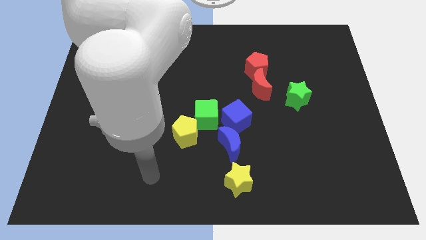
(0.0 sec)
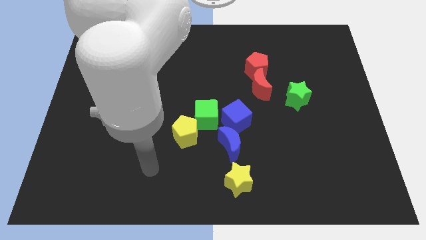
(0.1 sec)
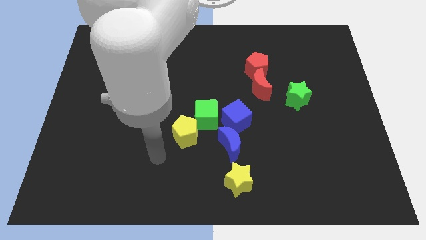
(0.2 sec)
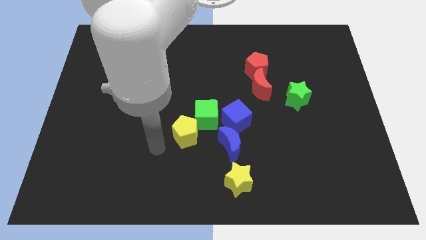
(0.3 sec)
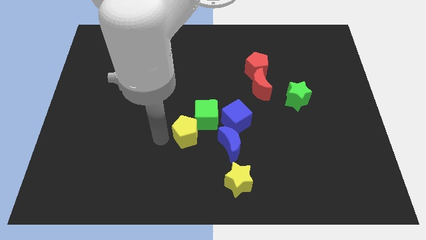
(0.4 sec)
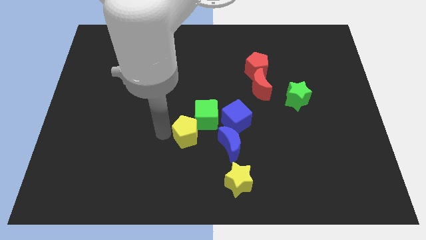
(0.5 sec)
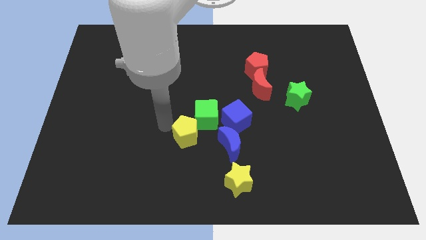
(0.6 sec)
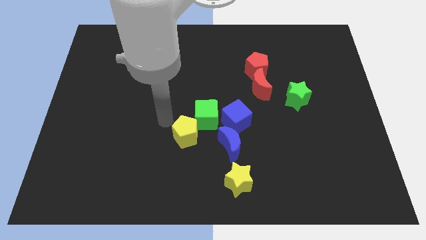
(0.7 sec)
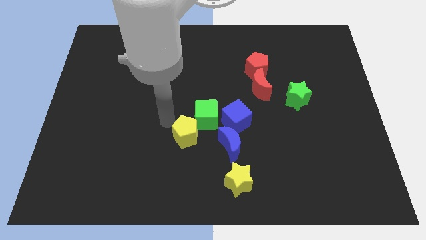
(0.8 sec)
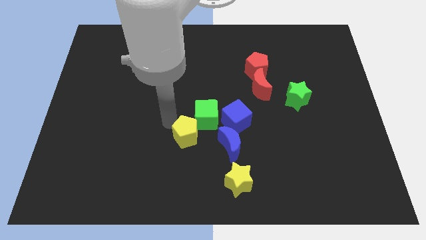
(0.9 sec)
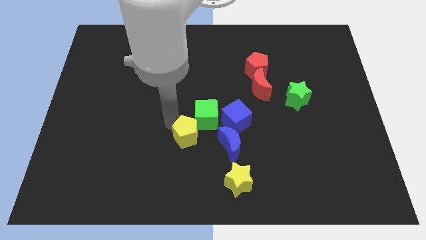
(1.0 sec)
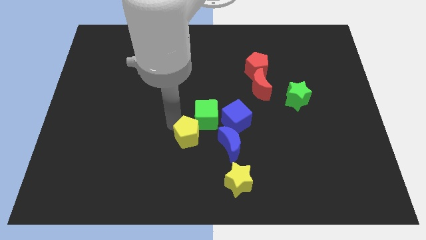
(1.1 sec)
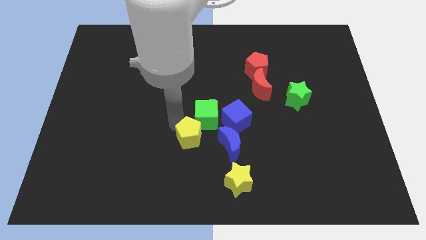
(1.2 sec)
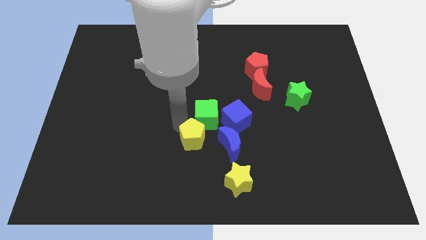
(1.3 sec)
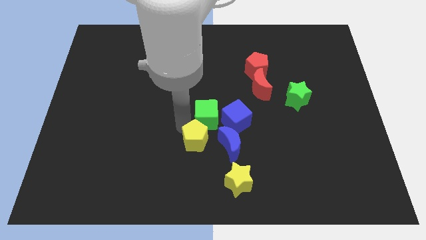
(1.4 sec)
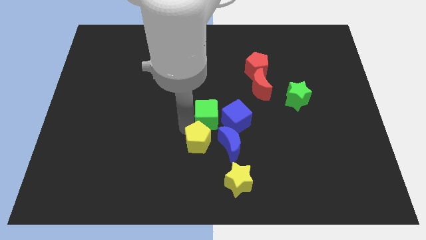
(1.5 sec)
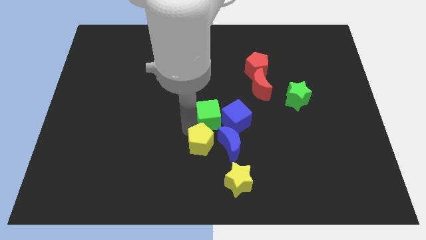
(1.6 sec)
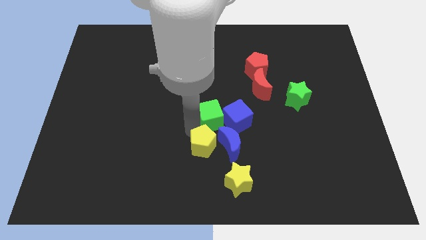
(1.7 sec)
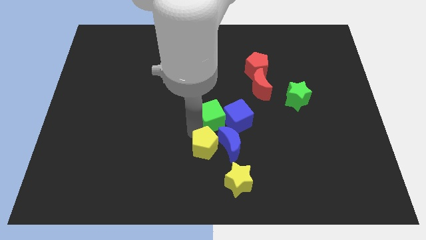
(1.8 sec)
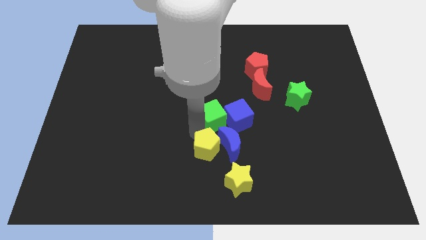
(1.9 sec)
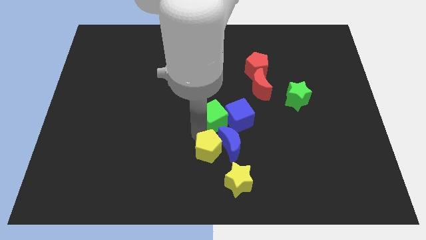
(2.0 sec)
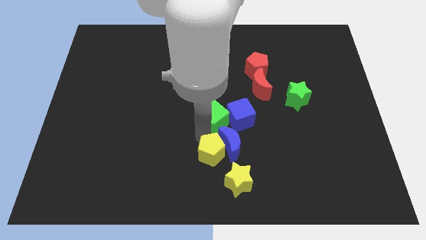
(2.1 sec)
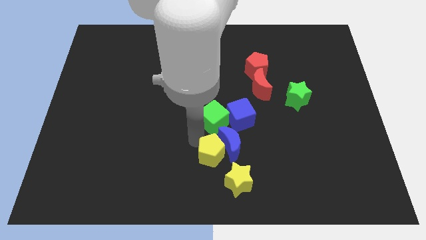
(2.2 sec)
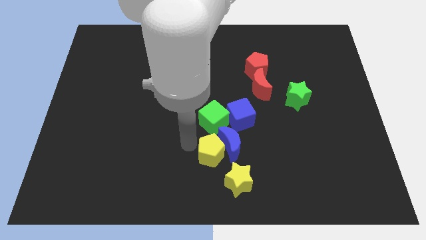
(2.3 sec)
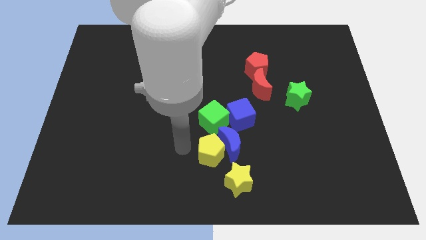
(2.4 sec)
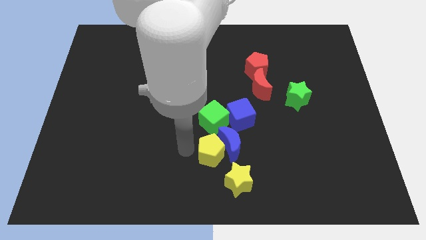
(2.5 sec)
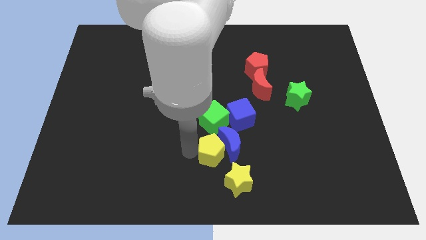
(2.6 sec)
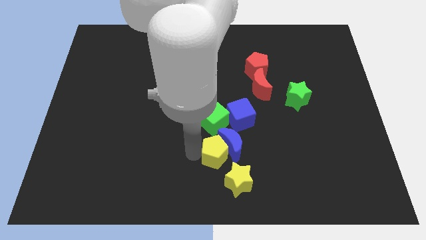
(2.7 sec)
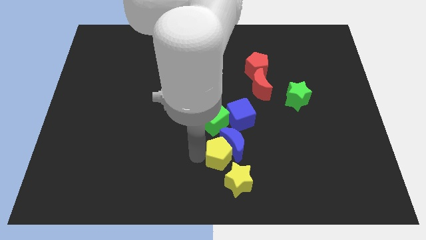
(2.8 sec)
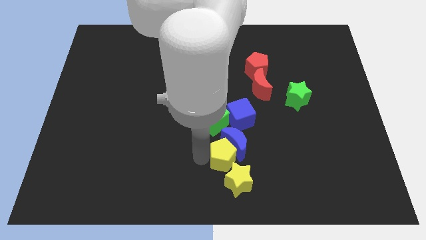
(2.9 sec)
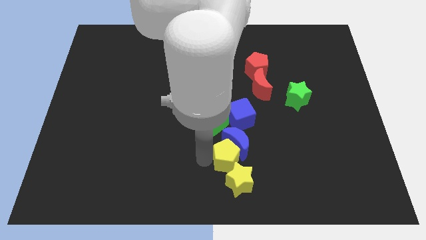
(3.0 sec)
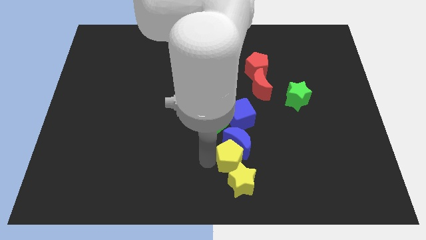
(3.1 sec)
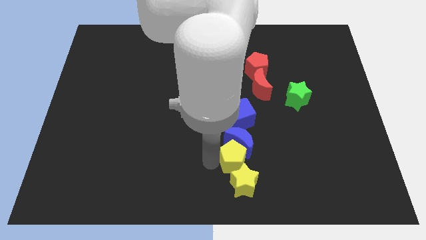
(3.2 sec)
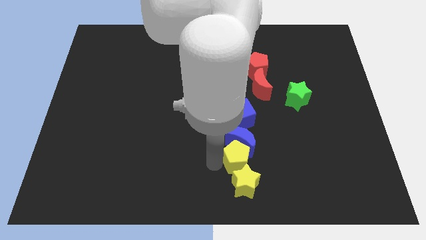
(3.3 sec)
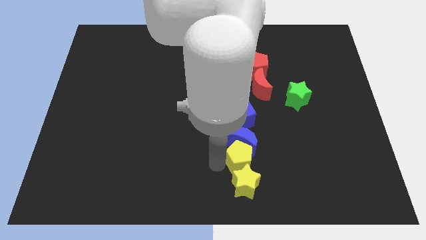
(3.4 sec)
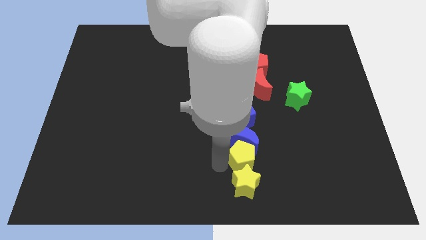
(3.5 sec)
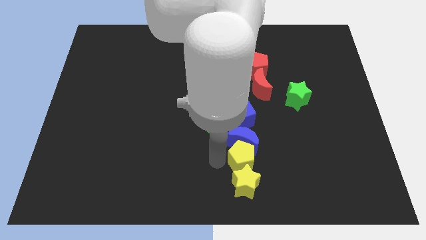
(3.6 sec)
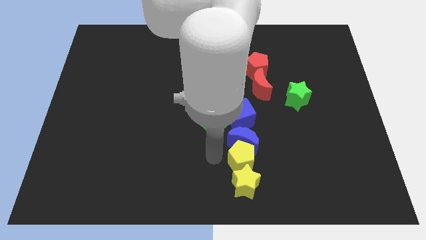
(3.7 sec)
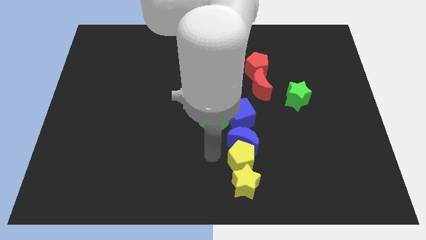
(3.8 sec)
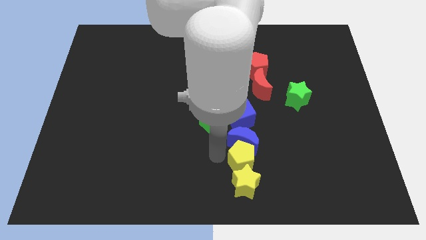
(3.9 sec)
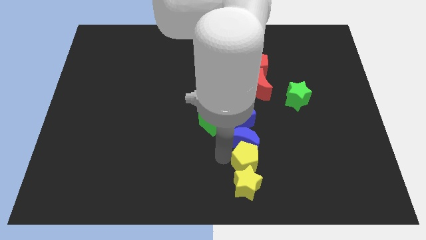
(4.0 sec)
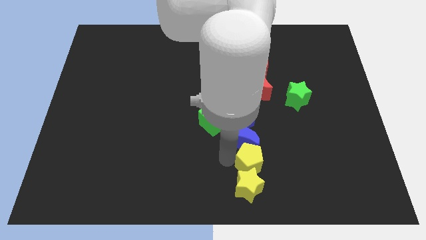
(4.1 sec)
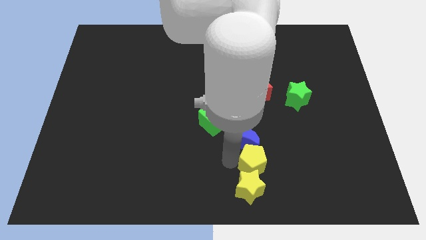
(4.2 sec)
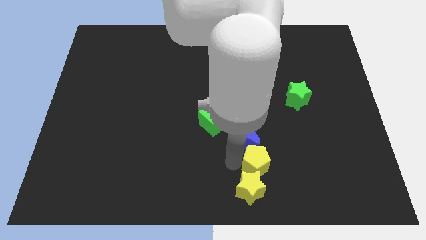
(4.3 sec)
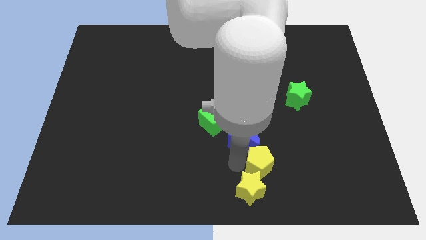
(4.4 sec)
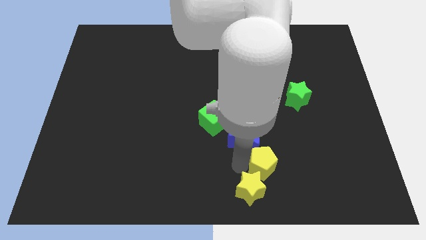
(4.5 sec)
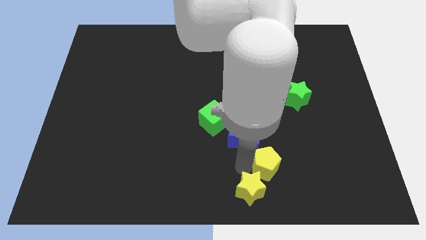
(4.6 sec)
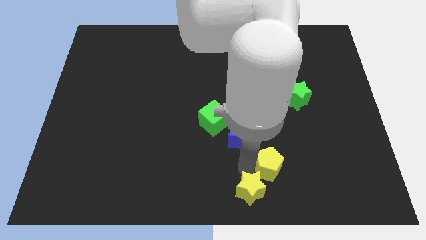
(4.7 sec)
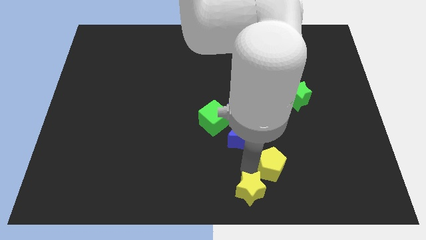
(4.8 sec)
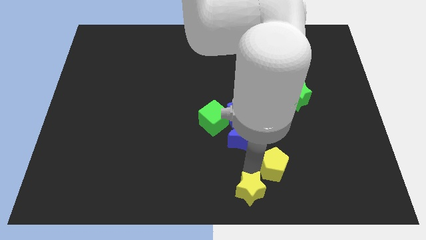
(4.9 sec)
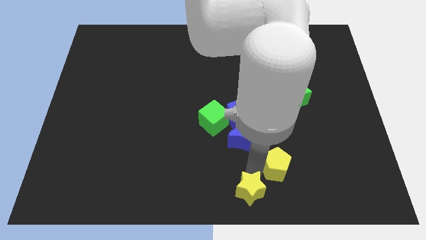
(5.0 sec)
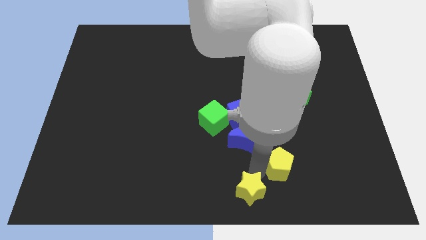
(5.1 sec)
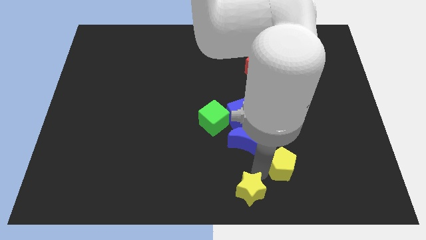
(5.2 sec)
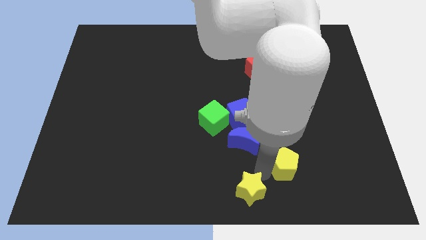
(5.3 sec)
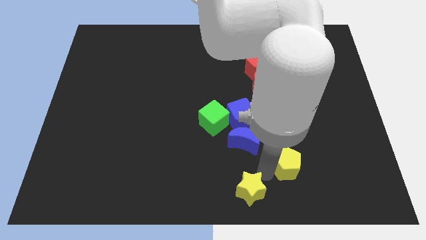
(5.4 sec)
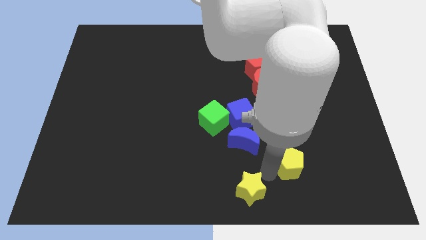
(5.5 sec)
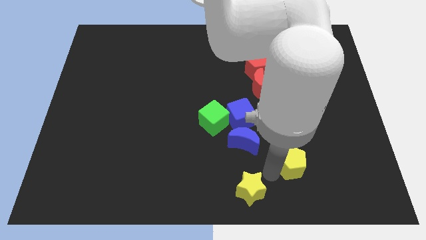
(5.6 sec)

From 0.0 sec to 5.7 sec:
push the yellow pentagon to the right

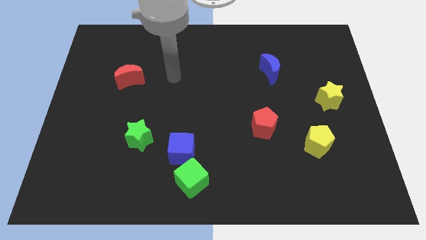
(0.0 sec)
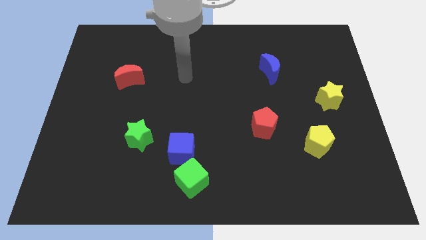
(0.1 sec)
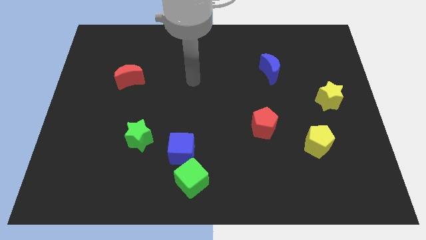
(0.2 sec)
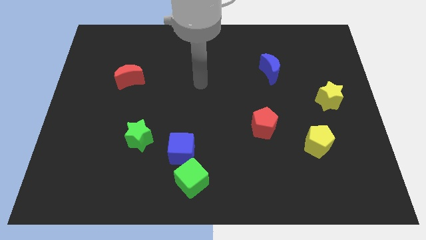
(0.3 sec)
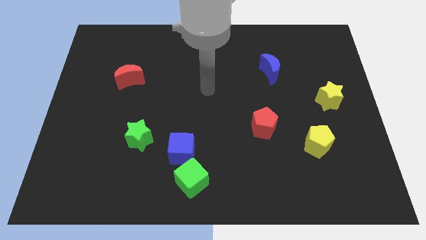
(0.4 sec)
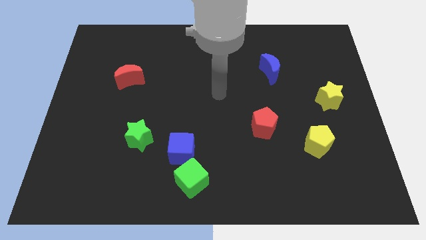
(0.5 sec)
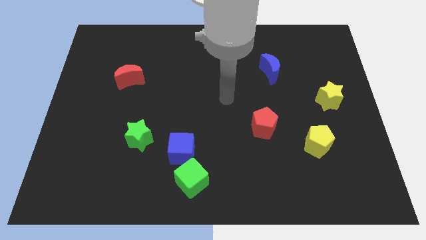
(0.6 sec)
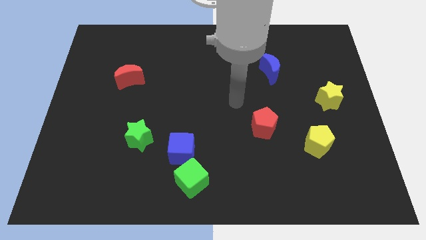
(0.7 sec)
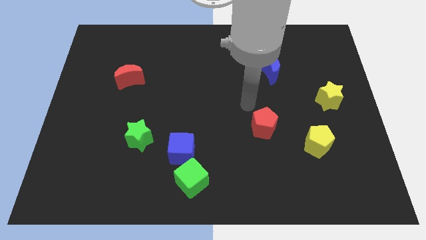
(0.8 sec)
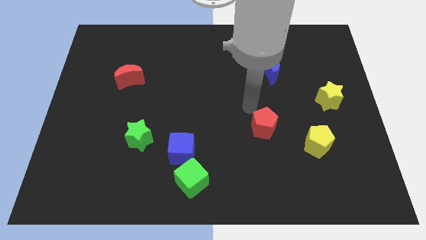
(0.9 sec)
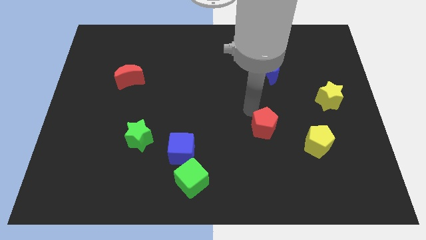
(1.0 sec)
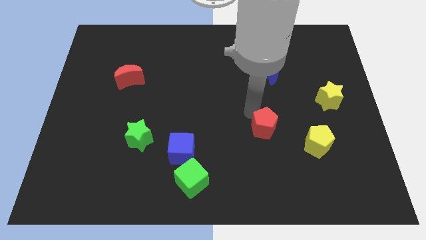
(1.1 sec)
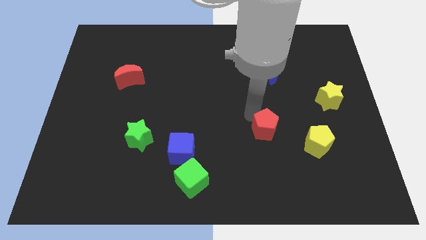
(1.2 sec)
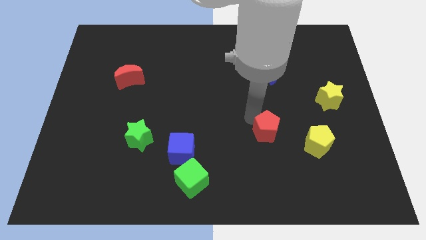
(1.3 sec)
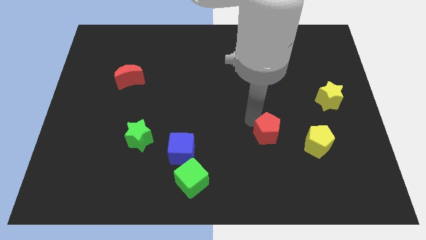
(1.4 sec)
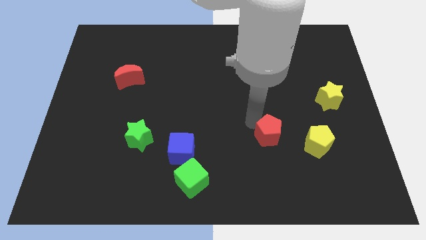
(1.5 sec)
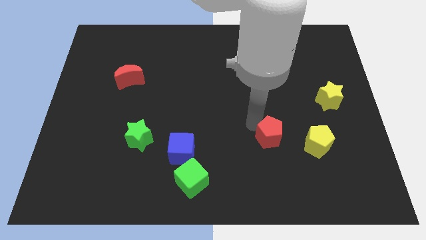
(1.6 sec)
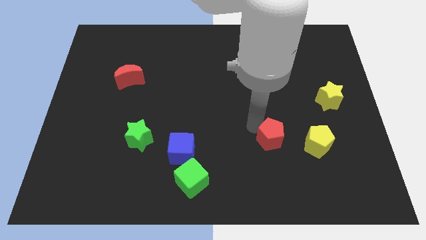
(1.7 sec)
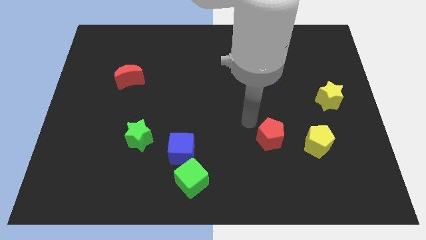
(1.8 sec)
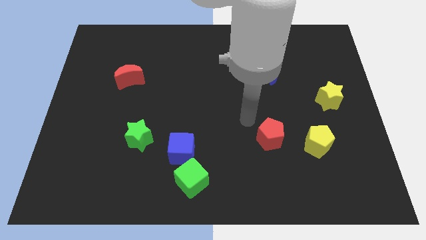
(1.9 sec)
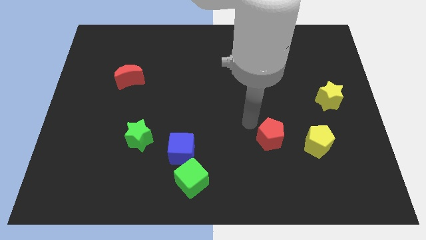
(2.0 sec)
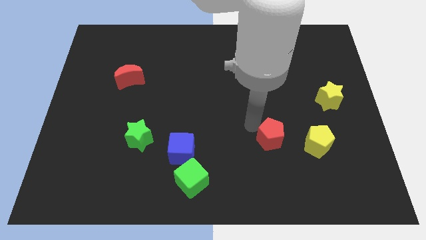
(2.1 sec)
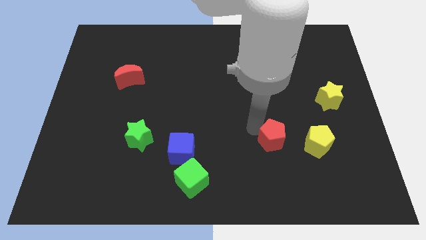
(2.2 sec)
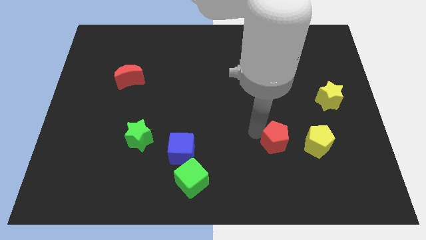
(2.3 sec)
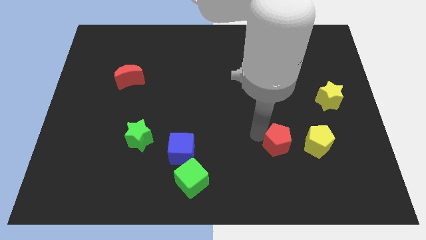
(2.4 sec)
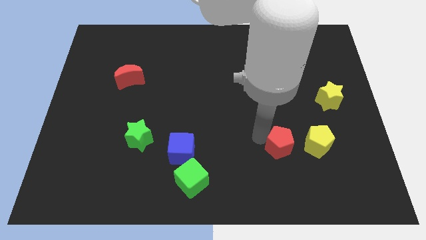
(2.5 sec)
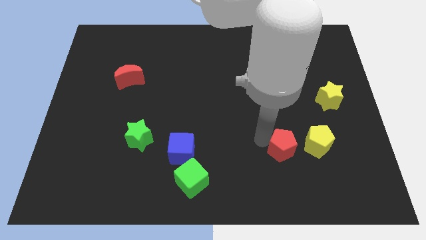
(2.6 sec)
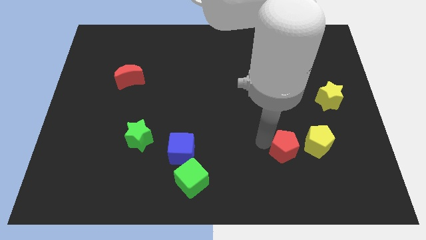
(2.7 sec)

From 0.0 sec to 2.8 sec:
slide the red pentagon down and right diagonally a little bit
